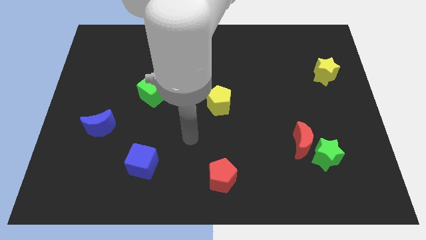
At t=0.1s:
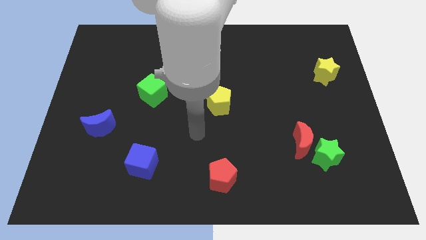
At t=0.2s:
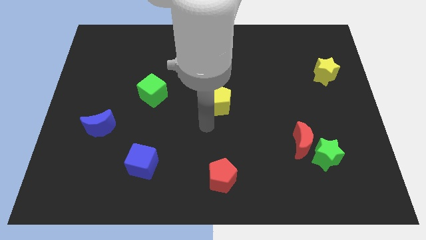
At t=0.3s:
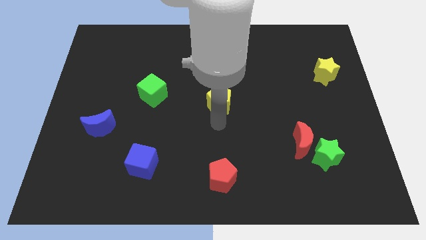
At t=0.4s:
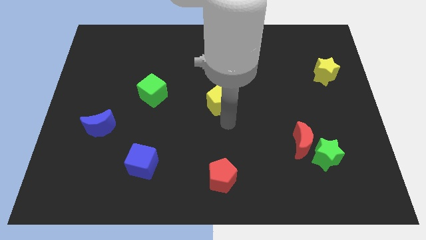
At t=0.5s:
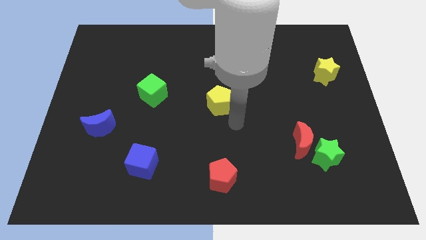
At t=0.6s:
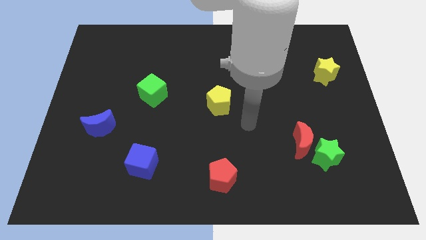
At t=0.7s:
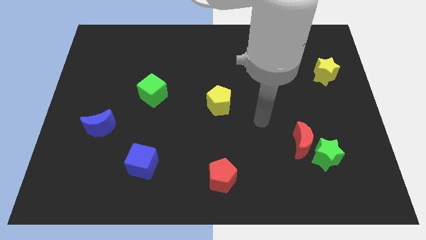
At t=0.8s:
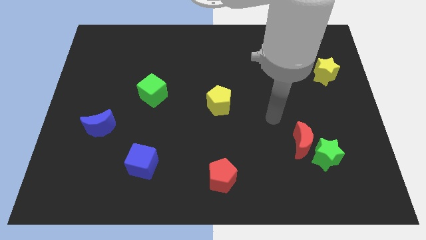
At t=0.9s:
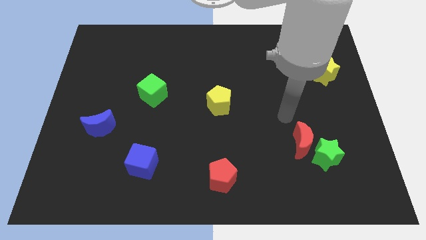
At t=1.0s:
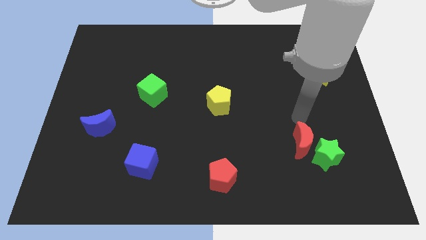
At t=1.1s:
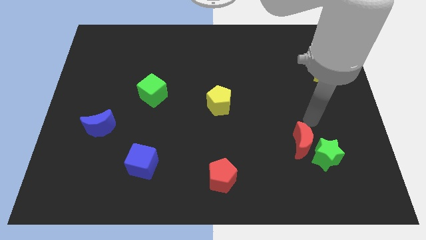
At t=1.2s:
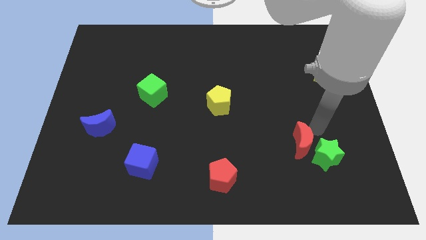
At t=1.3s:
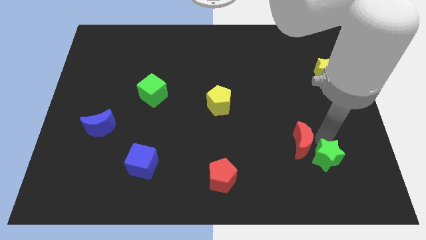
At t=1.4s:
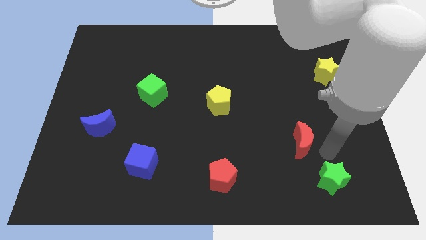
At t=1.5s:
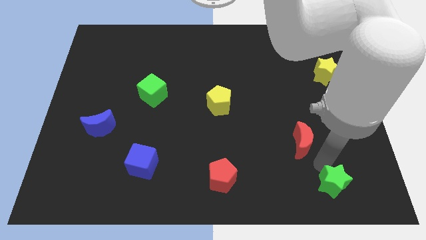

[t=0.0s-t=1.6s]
separate the red moon from the green star

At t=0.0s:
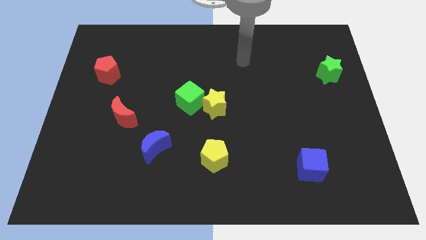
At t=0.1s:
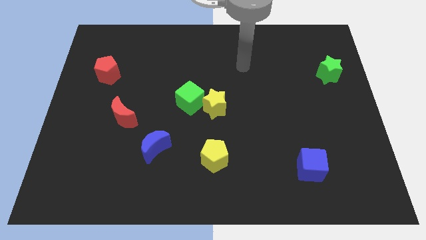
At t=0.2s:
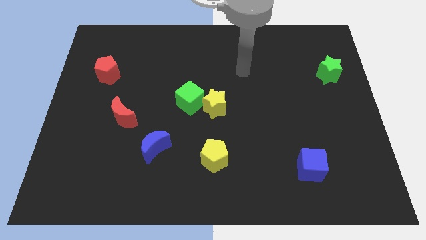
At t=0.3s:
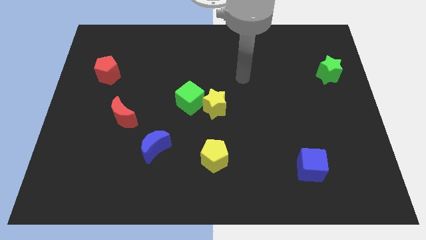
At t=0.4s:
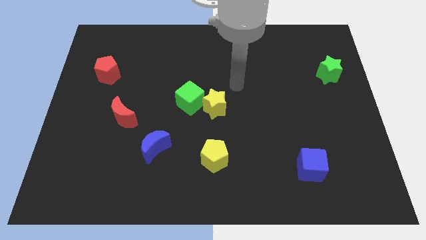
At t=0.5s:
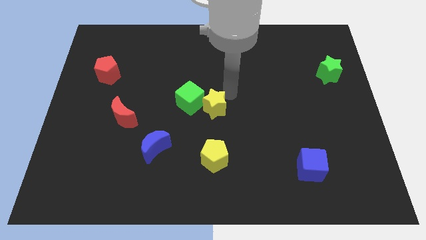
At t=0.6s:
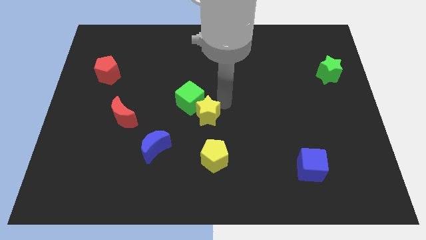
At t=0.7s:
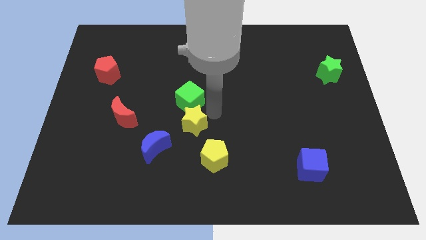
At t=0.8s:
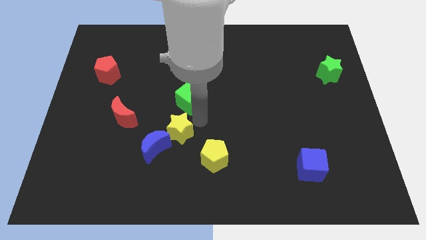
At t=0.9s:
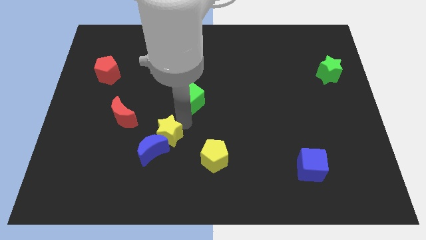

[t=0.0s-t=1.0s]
separate the green cube from the yellow star

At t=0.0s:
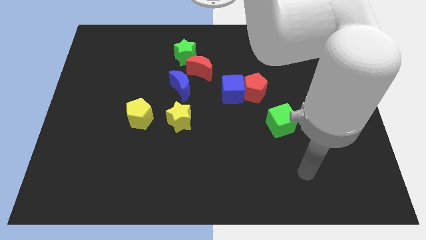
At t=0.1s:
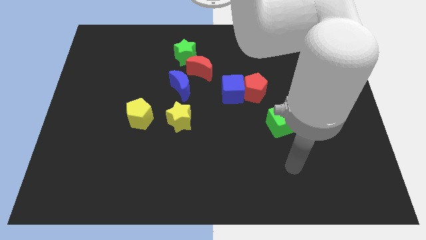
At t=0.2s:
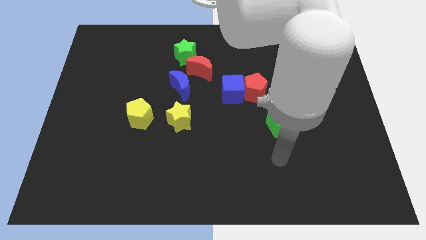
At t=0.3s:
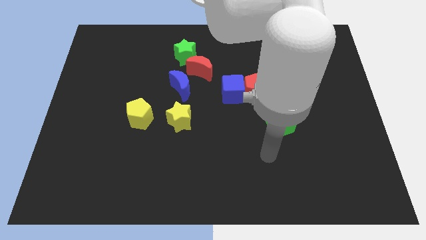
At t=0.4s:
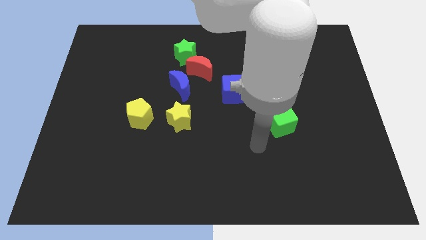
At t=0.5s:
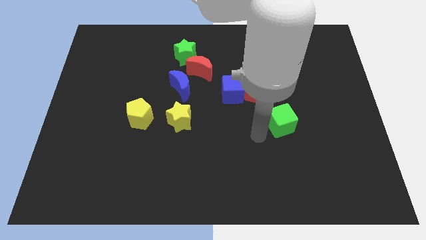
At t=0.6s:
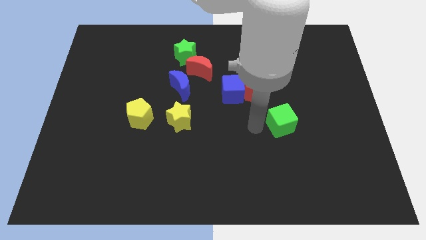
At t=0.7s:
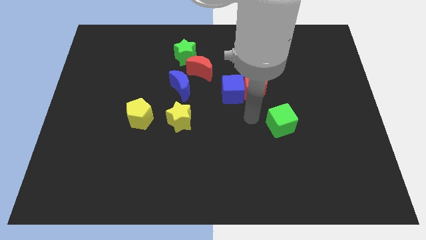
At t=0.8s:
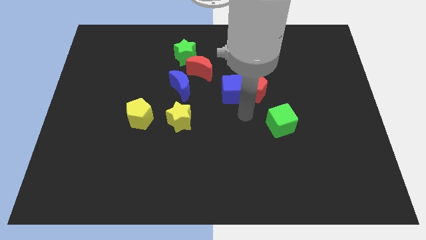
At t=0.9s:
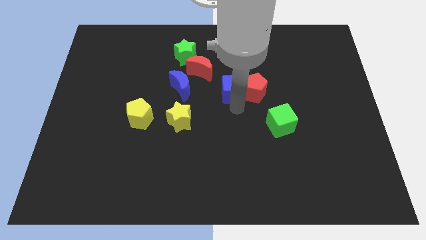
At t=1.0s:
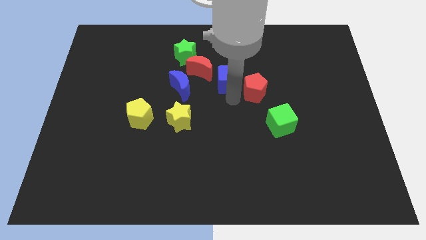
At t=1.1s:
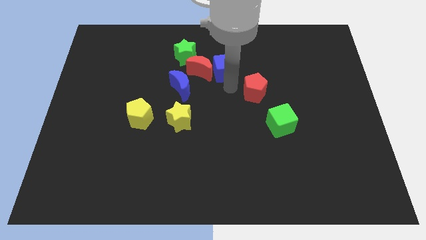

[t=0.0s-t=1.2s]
pull the red pentagon apart from the blue cube

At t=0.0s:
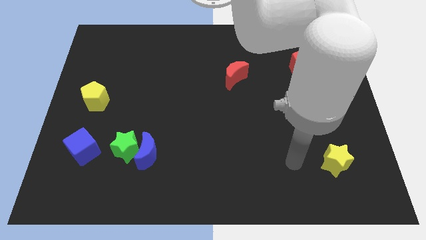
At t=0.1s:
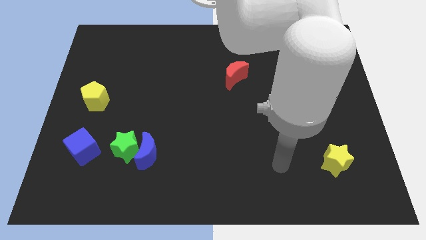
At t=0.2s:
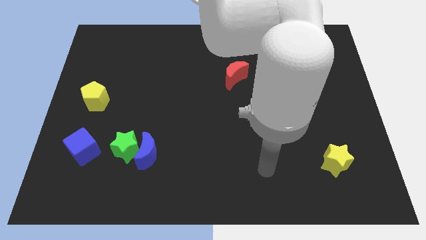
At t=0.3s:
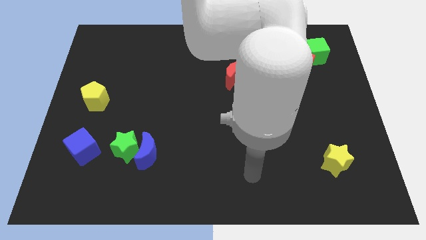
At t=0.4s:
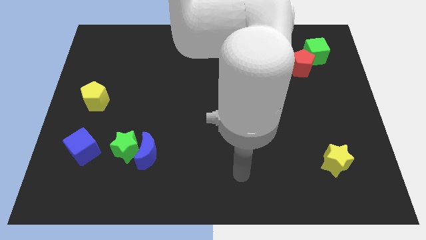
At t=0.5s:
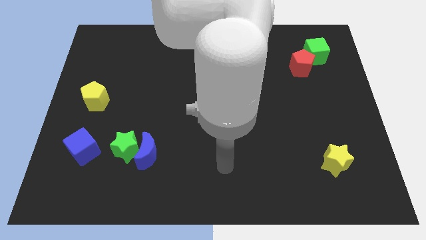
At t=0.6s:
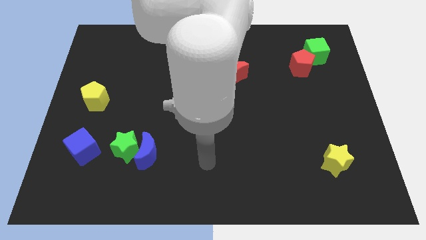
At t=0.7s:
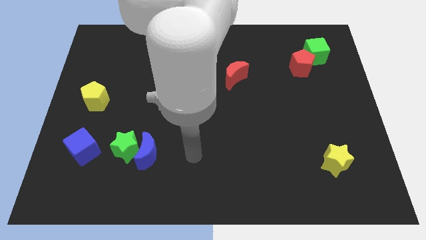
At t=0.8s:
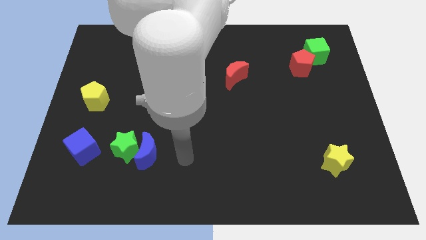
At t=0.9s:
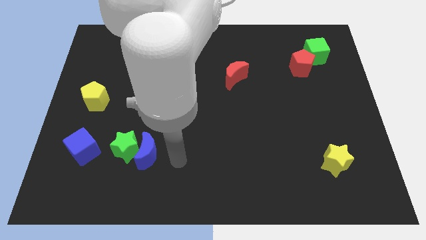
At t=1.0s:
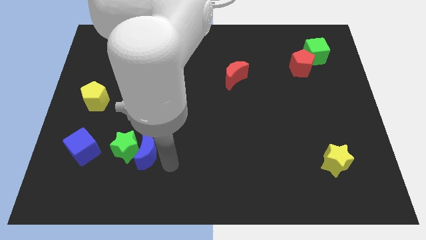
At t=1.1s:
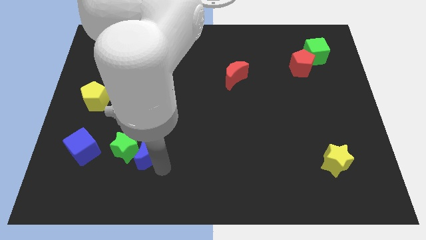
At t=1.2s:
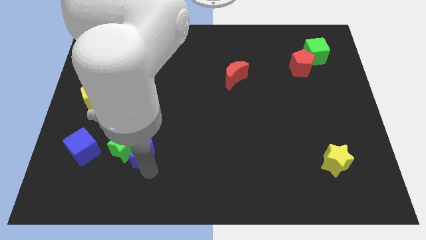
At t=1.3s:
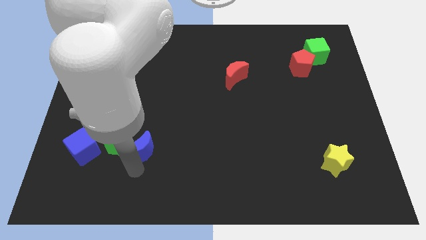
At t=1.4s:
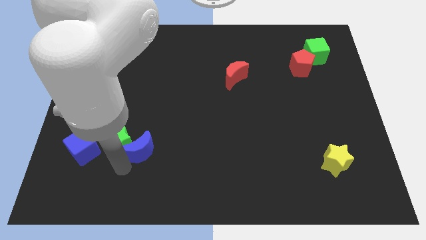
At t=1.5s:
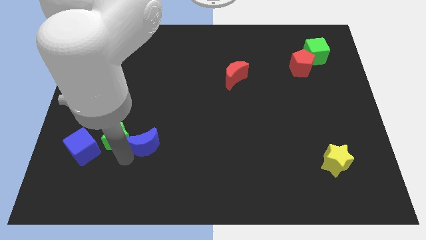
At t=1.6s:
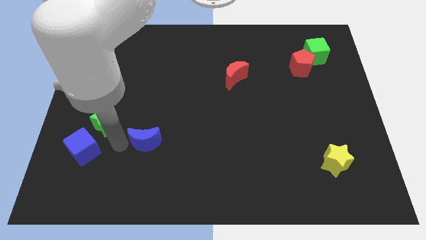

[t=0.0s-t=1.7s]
pull the blue moon apart from the green star

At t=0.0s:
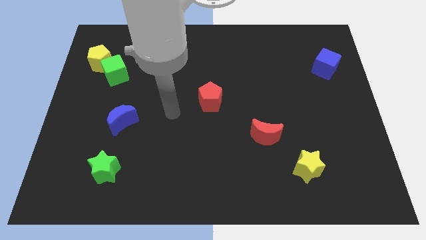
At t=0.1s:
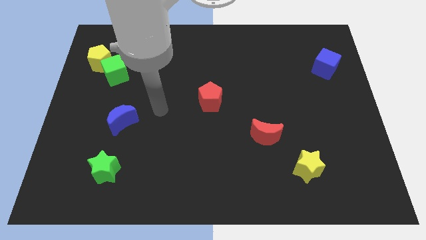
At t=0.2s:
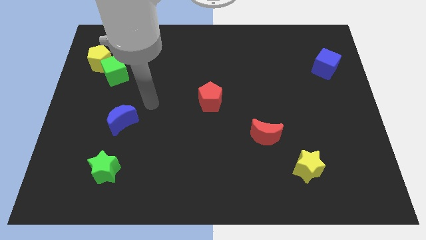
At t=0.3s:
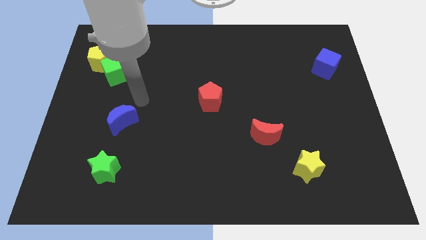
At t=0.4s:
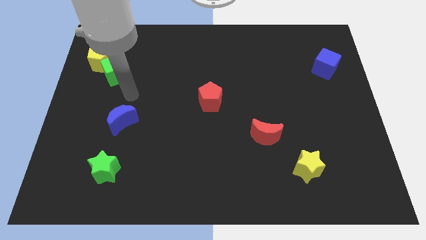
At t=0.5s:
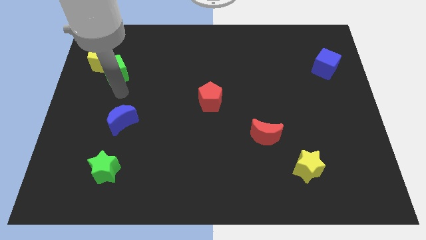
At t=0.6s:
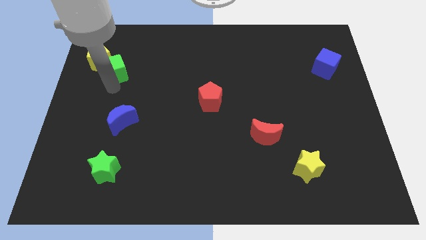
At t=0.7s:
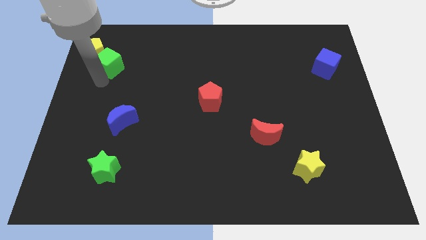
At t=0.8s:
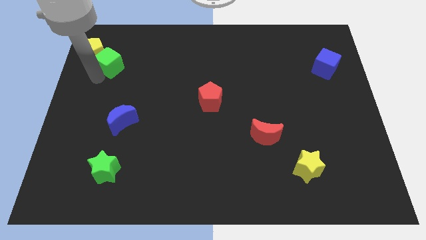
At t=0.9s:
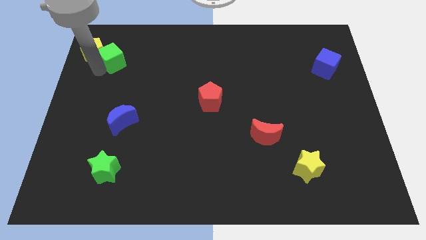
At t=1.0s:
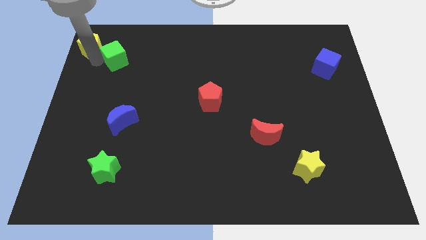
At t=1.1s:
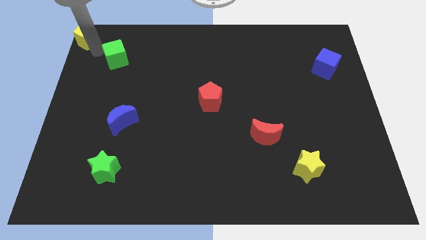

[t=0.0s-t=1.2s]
separate the green cube from the yellow pentagon

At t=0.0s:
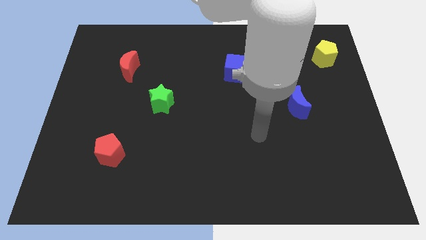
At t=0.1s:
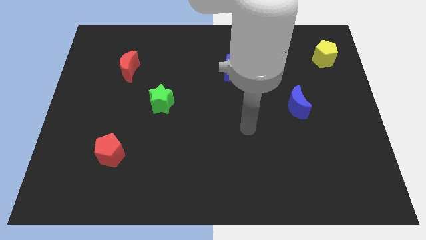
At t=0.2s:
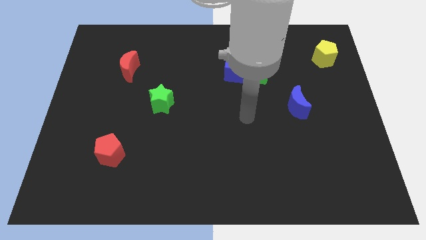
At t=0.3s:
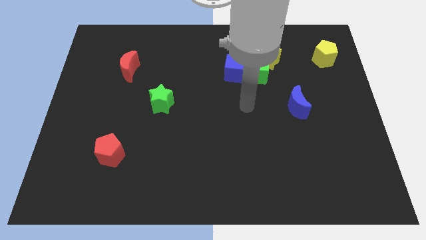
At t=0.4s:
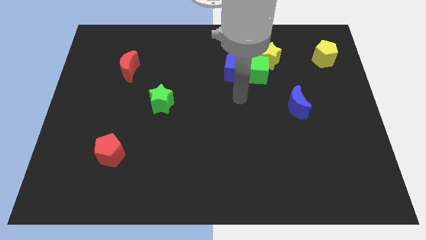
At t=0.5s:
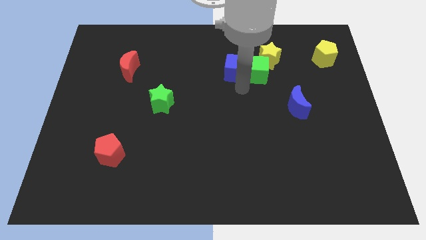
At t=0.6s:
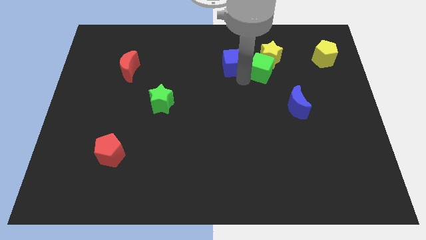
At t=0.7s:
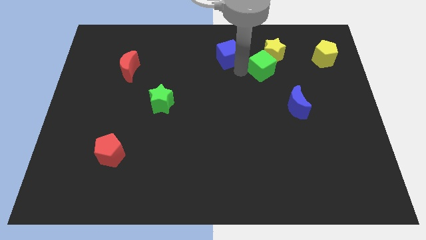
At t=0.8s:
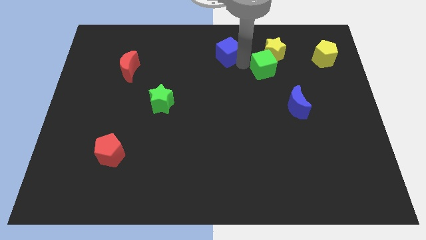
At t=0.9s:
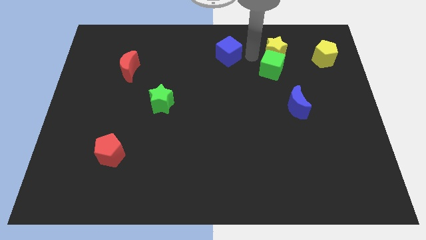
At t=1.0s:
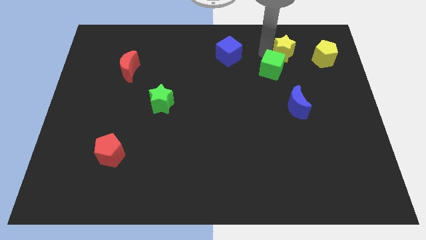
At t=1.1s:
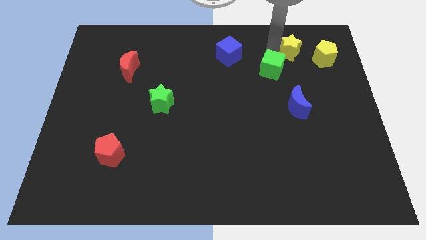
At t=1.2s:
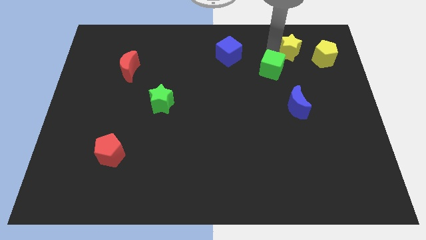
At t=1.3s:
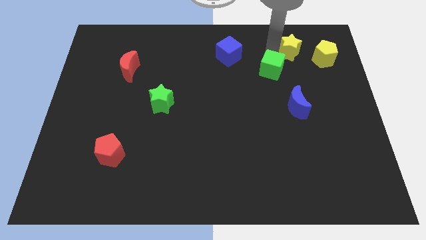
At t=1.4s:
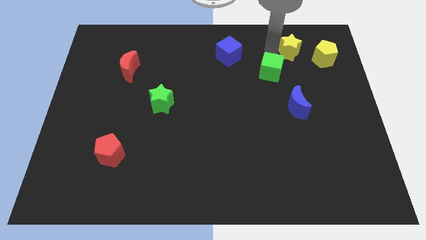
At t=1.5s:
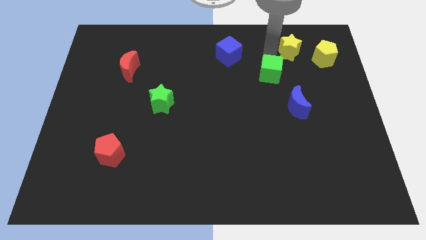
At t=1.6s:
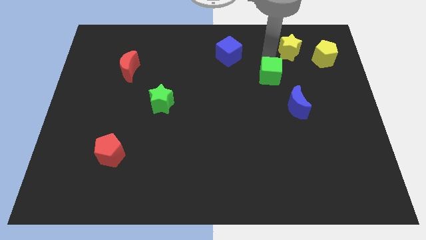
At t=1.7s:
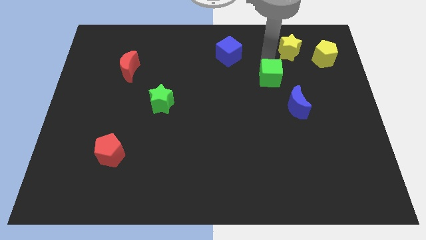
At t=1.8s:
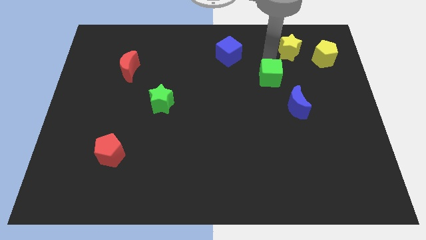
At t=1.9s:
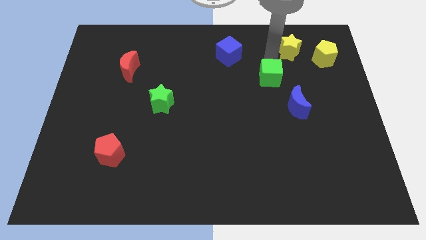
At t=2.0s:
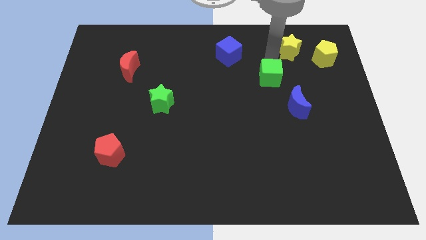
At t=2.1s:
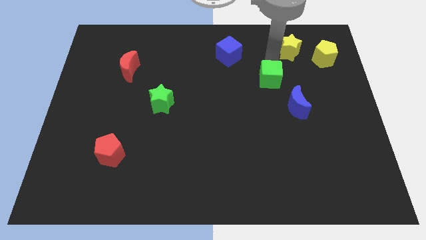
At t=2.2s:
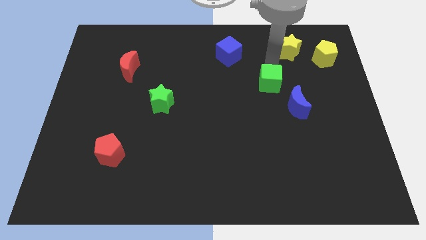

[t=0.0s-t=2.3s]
move the green cube away from the blue cube and yellow star

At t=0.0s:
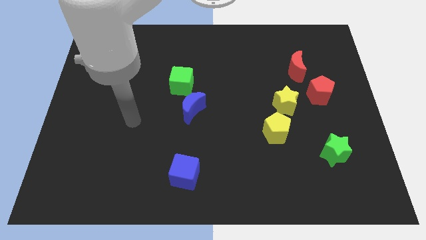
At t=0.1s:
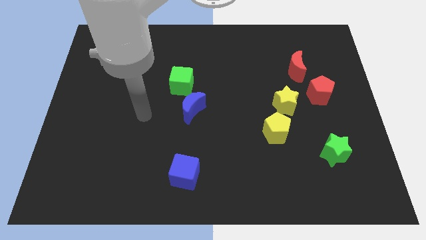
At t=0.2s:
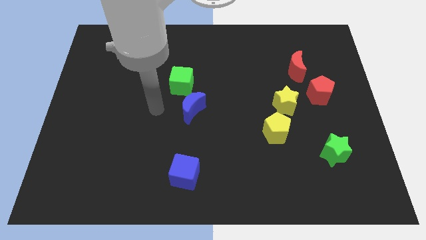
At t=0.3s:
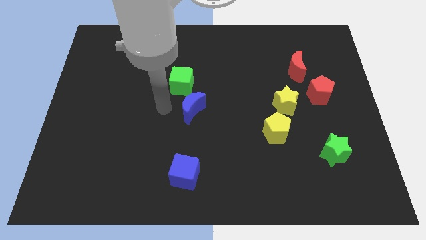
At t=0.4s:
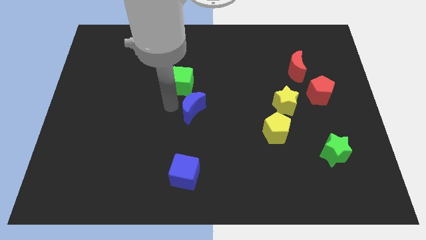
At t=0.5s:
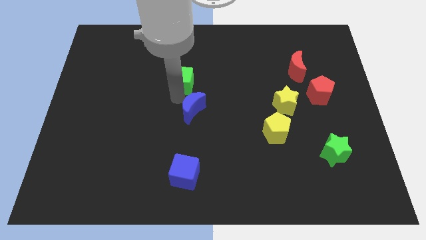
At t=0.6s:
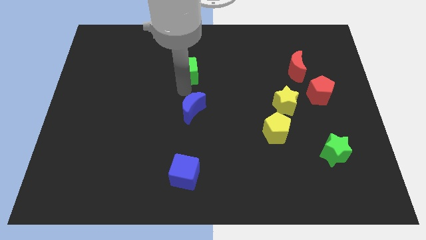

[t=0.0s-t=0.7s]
separate the blue moon from the green cube
